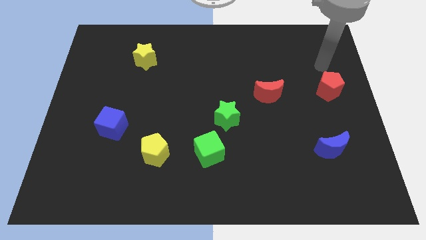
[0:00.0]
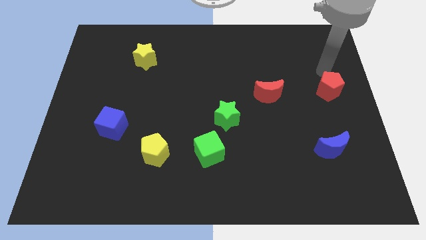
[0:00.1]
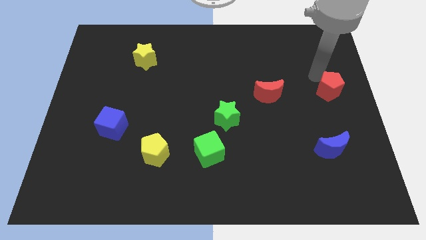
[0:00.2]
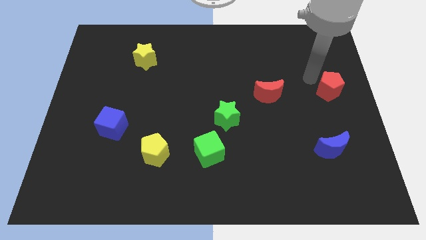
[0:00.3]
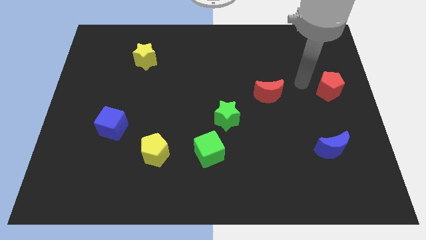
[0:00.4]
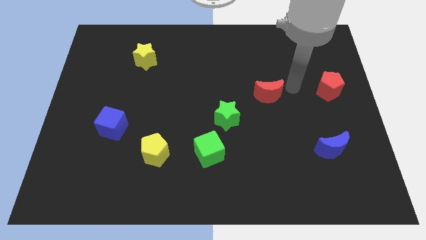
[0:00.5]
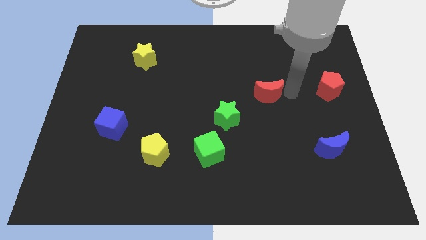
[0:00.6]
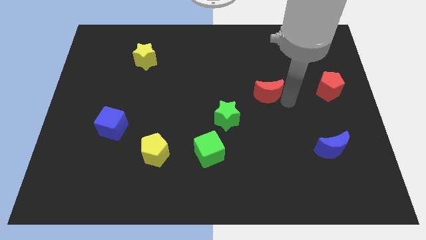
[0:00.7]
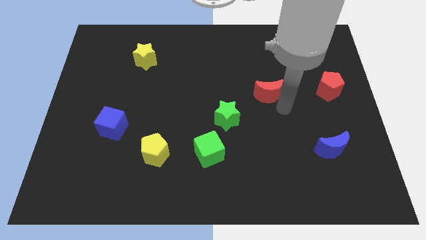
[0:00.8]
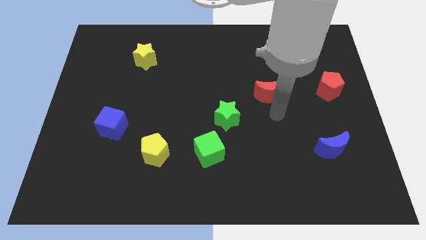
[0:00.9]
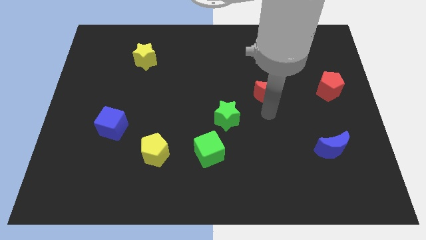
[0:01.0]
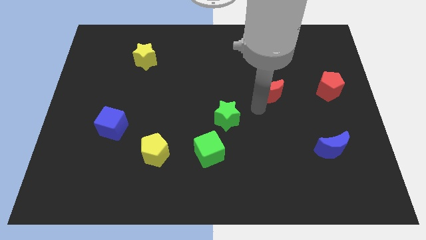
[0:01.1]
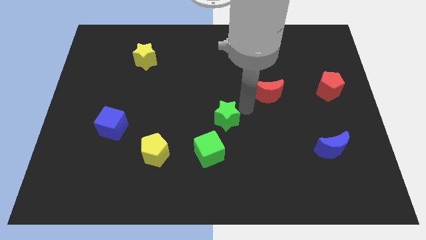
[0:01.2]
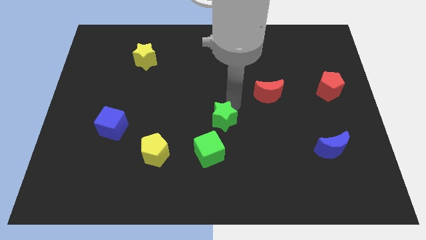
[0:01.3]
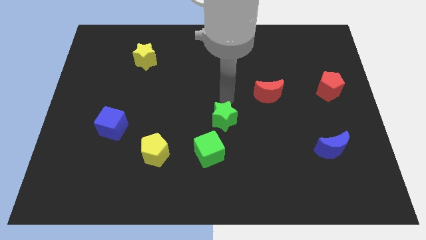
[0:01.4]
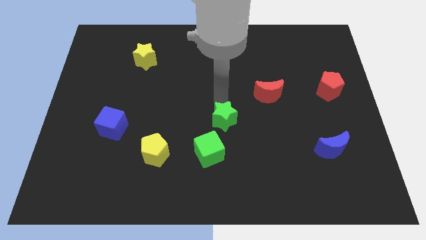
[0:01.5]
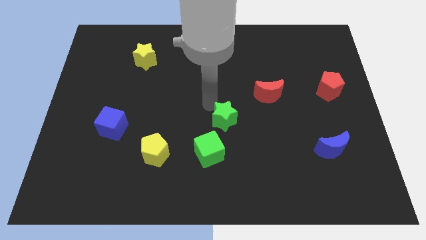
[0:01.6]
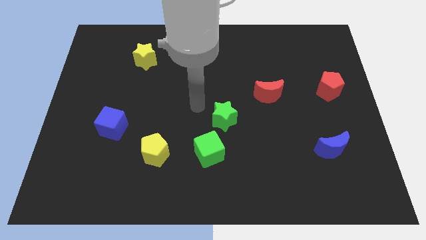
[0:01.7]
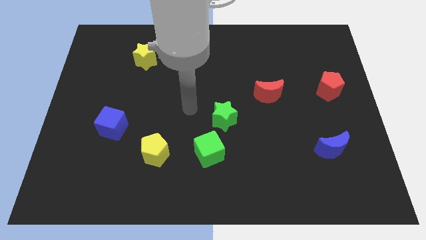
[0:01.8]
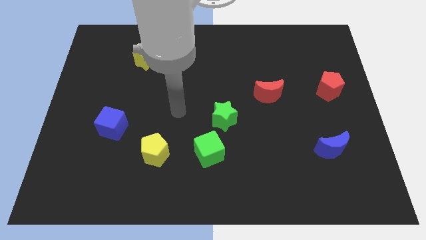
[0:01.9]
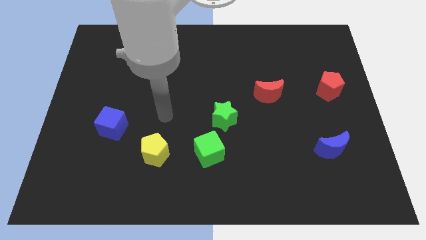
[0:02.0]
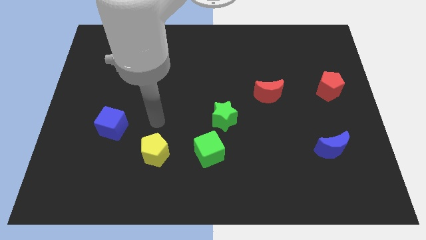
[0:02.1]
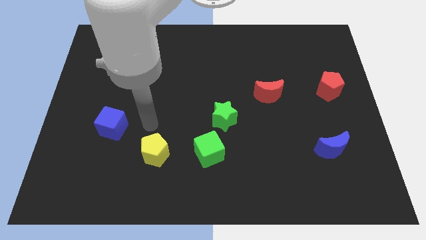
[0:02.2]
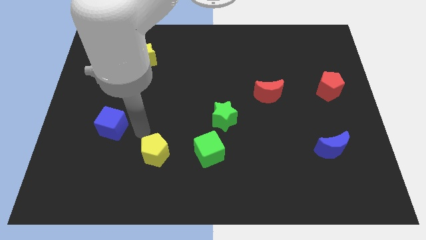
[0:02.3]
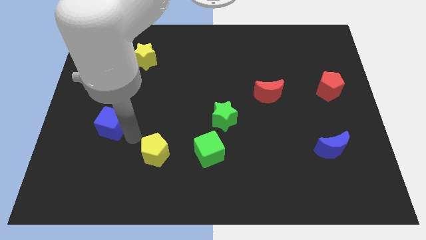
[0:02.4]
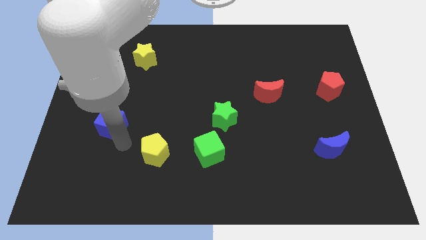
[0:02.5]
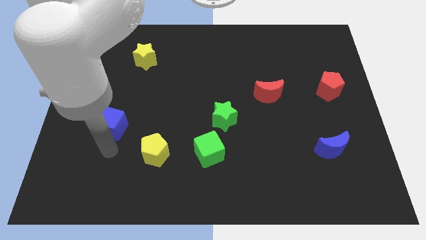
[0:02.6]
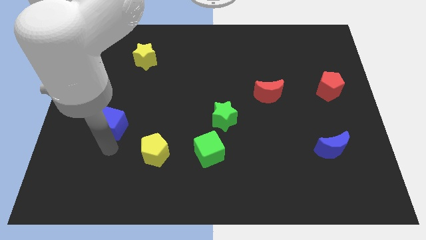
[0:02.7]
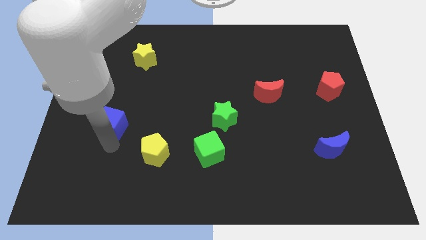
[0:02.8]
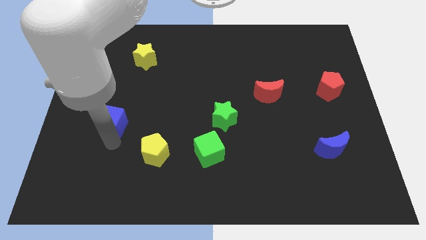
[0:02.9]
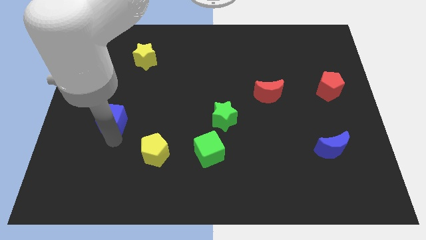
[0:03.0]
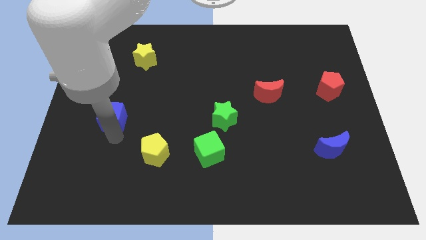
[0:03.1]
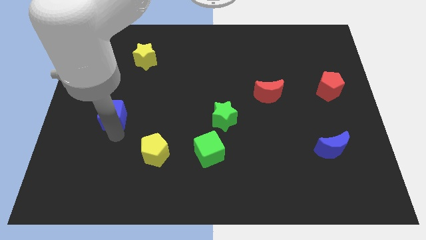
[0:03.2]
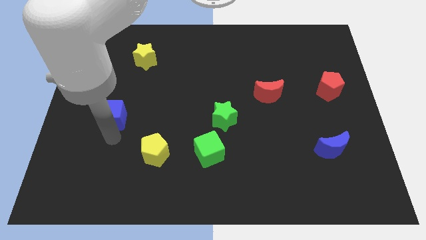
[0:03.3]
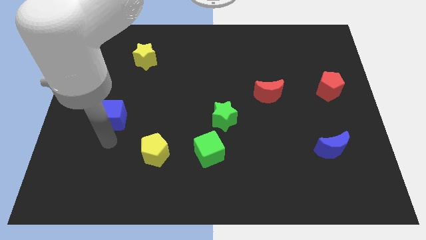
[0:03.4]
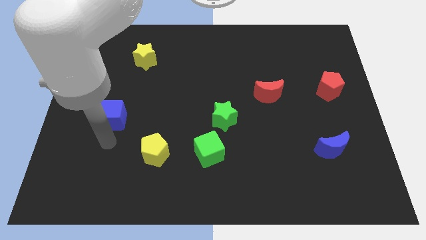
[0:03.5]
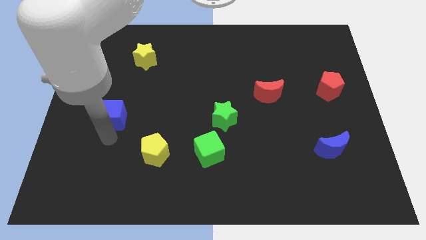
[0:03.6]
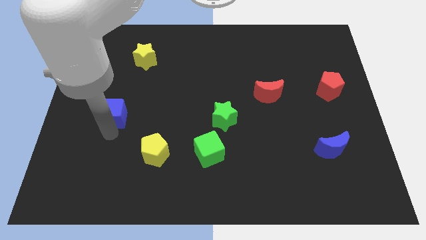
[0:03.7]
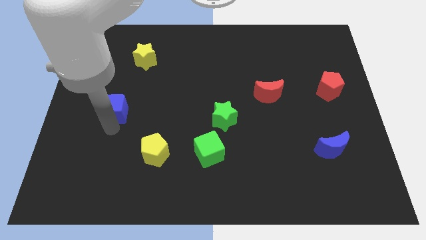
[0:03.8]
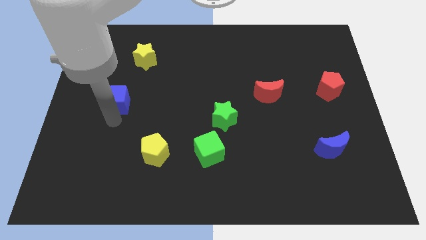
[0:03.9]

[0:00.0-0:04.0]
push the blue cube up a little

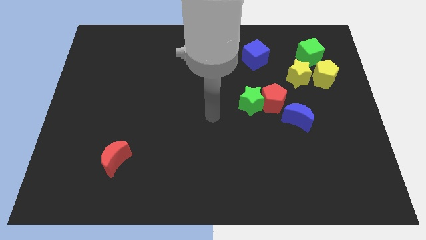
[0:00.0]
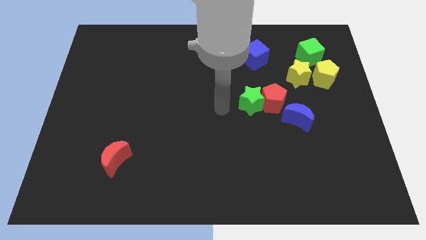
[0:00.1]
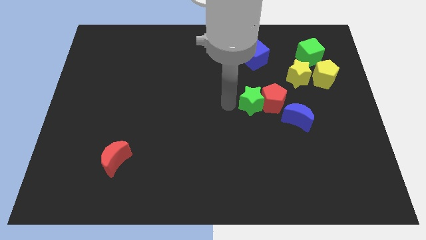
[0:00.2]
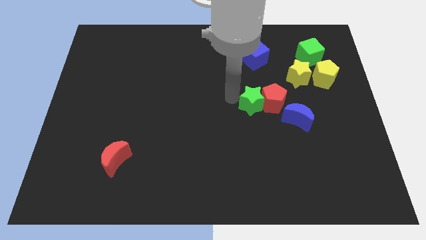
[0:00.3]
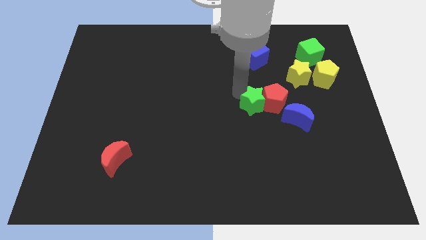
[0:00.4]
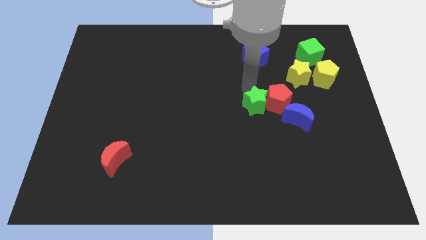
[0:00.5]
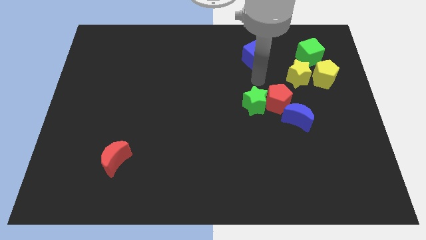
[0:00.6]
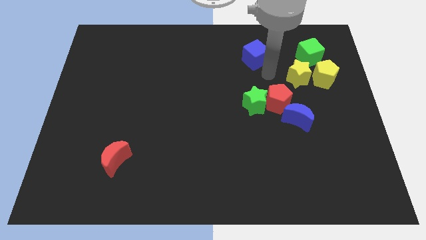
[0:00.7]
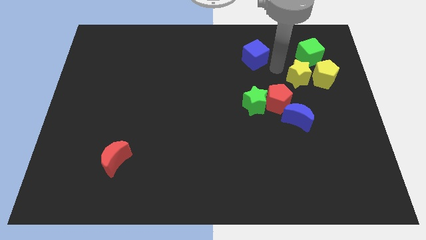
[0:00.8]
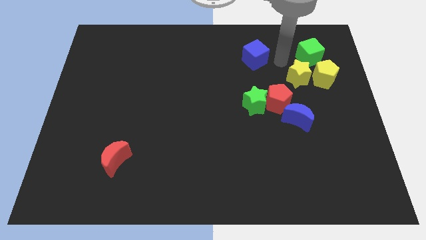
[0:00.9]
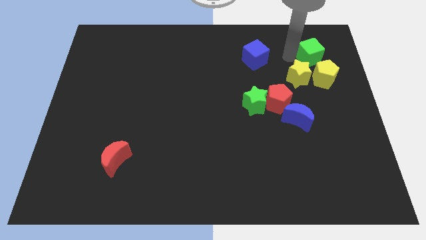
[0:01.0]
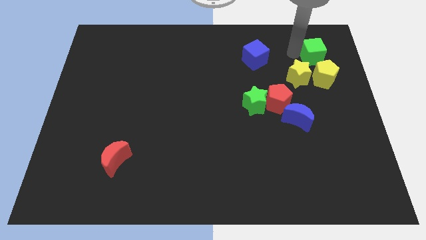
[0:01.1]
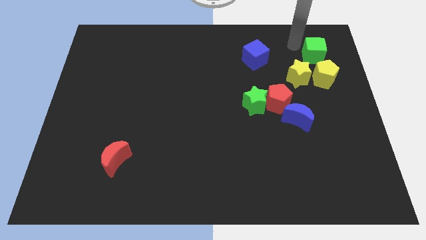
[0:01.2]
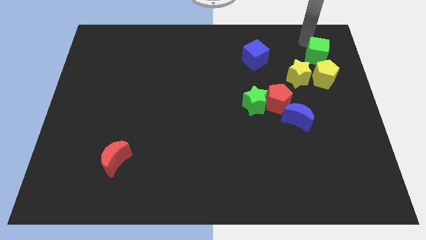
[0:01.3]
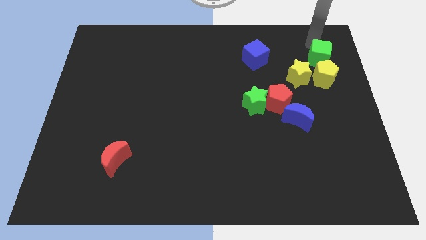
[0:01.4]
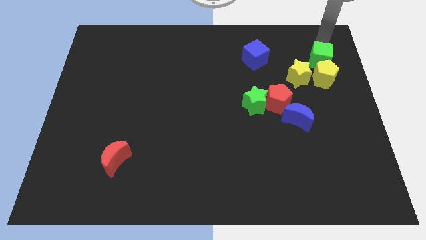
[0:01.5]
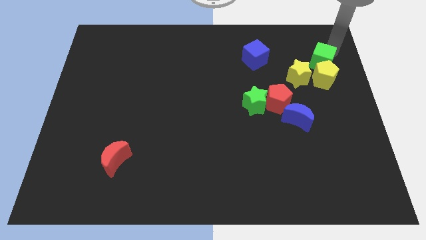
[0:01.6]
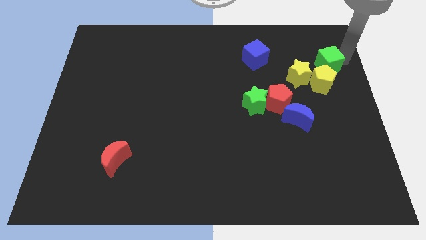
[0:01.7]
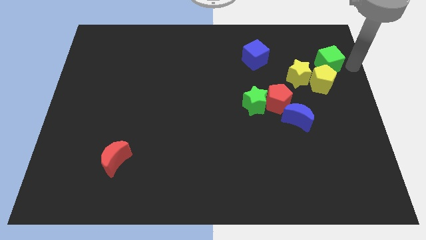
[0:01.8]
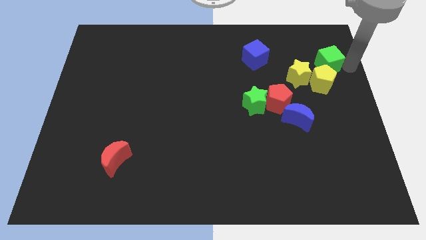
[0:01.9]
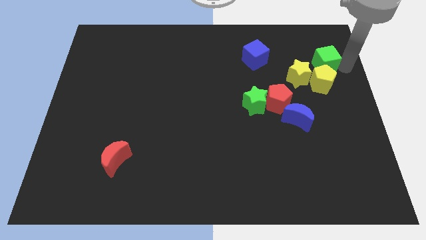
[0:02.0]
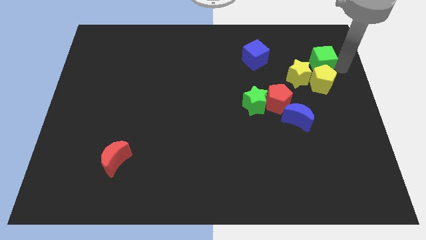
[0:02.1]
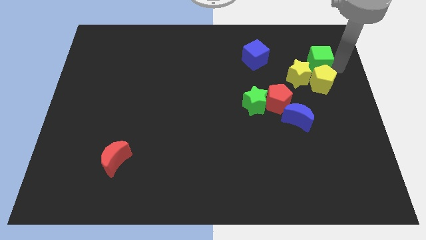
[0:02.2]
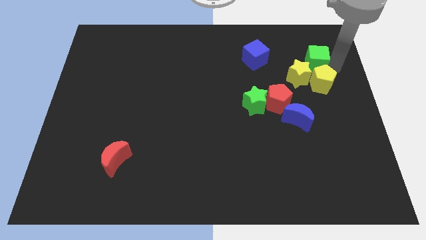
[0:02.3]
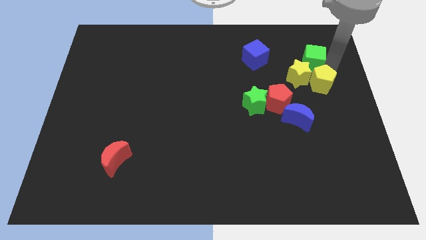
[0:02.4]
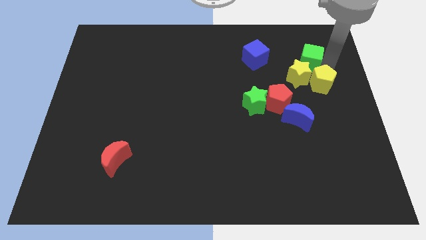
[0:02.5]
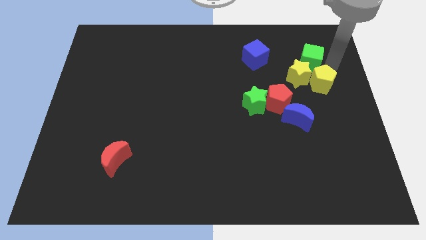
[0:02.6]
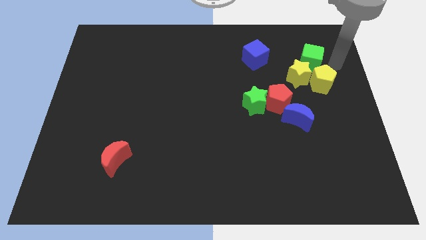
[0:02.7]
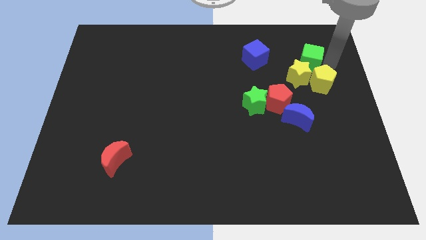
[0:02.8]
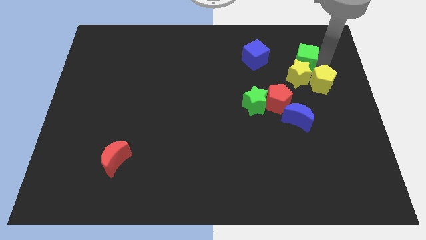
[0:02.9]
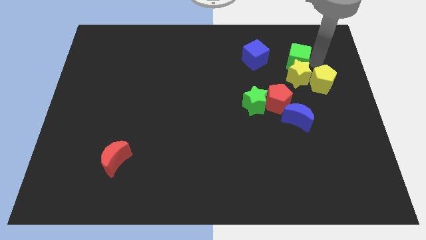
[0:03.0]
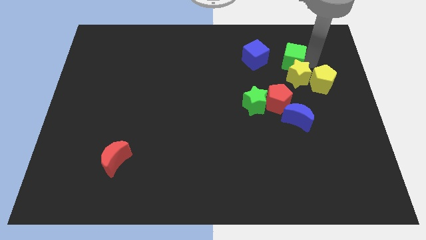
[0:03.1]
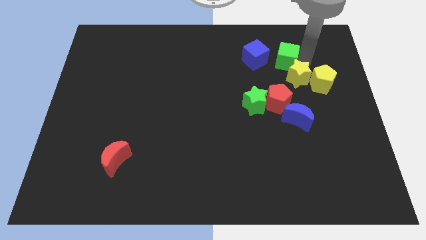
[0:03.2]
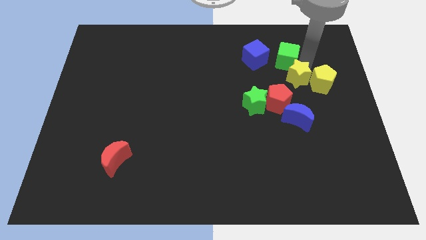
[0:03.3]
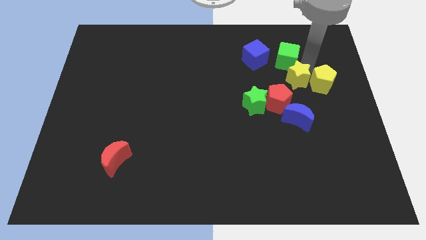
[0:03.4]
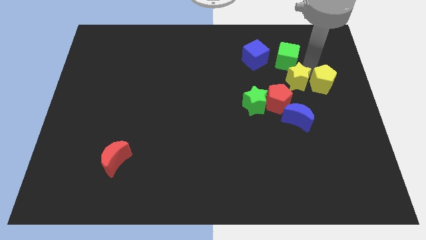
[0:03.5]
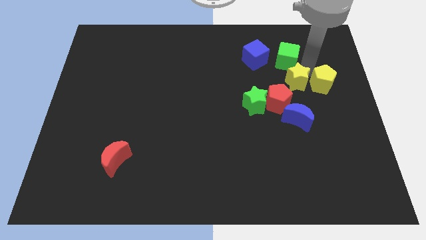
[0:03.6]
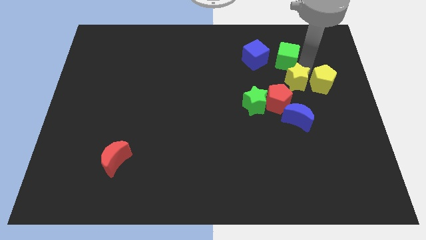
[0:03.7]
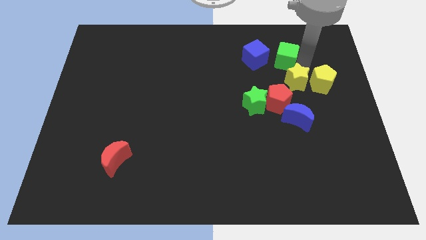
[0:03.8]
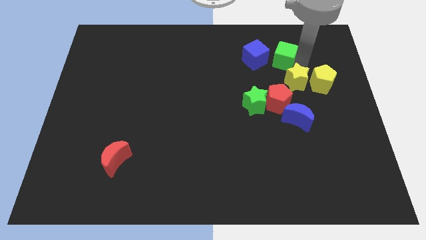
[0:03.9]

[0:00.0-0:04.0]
move the green cube to the left a little bit
